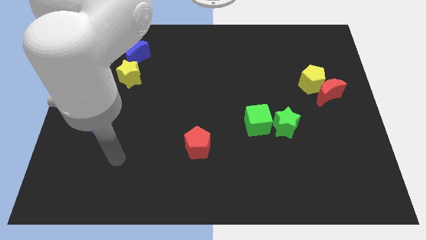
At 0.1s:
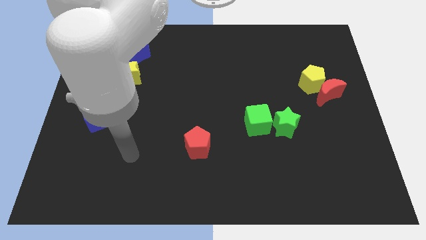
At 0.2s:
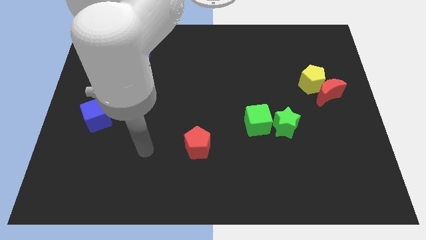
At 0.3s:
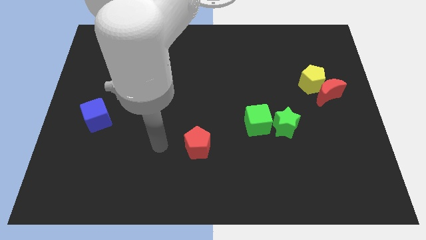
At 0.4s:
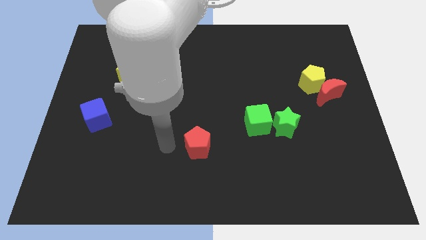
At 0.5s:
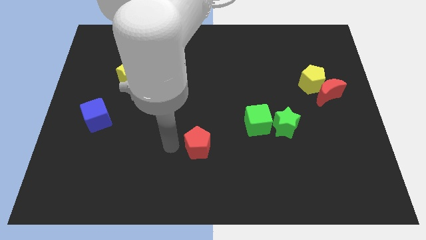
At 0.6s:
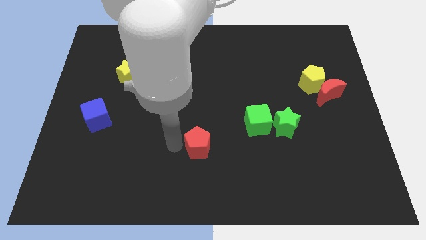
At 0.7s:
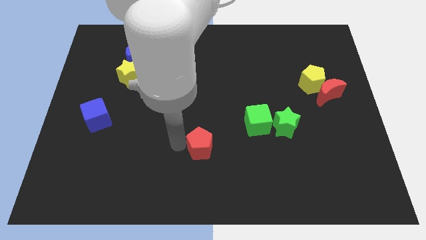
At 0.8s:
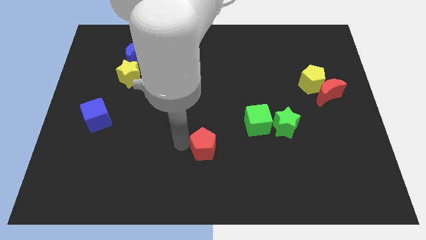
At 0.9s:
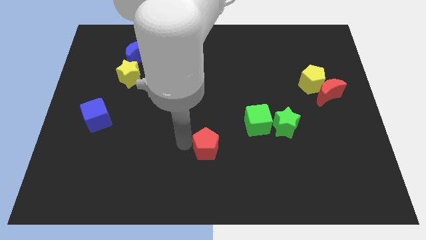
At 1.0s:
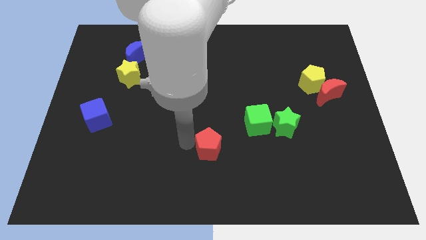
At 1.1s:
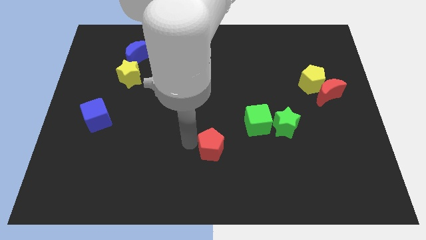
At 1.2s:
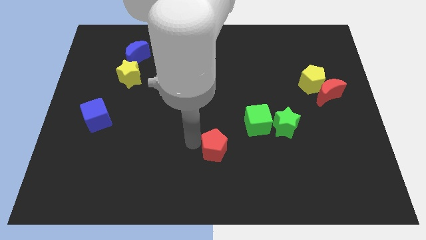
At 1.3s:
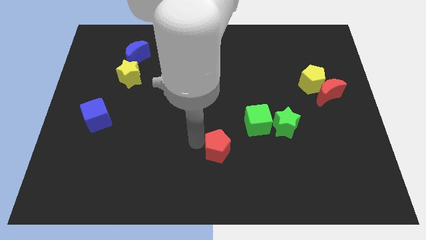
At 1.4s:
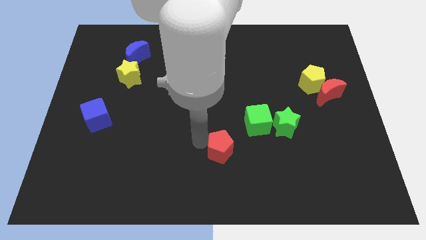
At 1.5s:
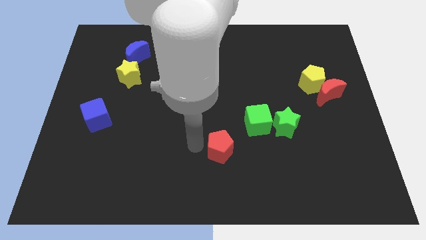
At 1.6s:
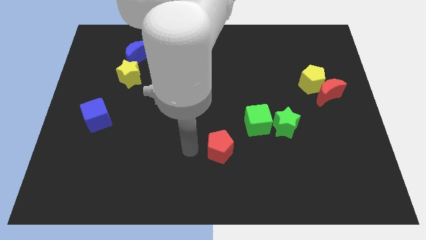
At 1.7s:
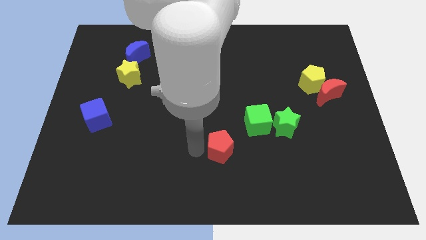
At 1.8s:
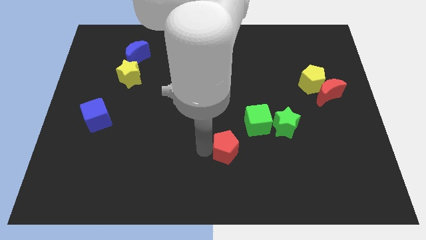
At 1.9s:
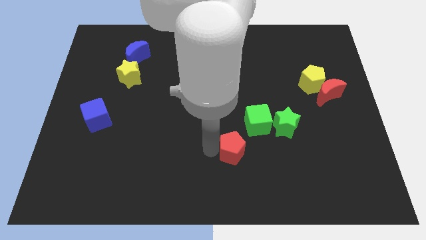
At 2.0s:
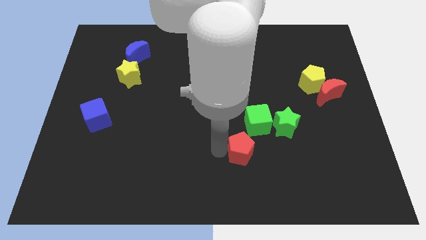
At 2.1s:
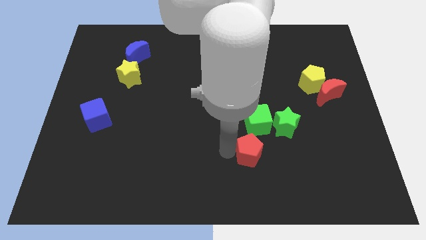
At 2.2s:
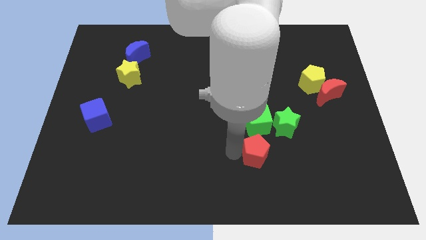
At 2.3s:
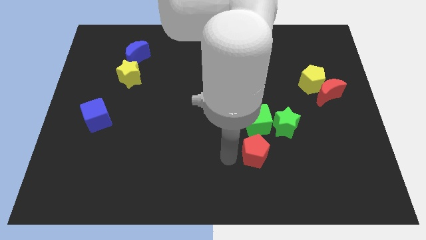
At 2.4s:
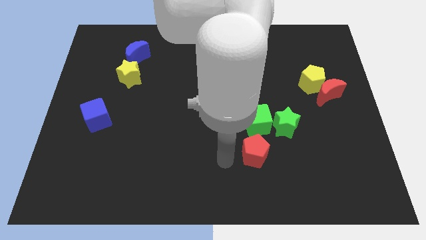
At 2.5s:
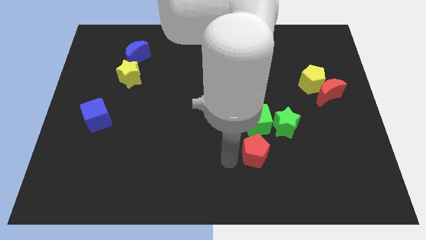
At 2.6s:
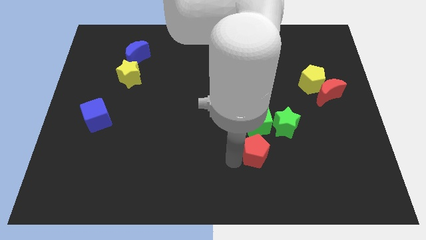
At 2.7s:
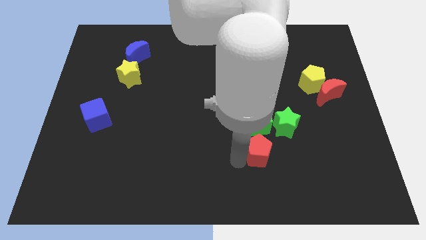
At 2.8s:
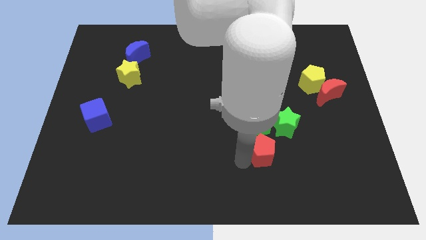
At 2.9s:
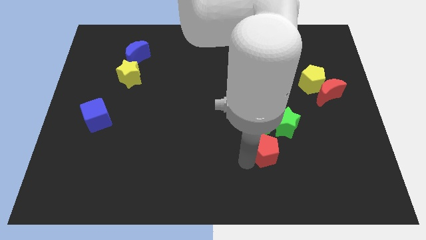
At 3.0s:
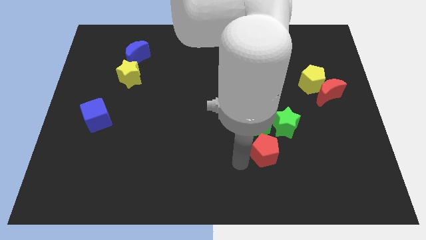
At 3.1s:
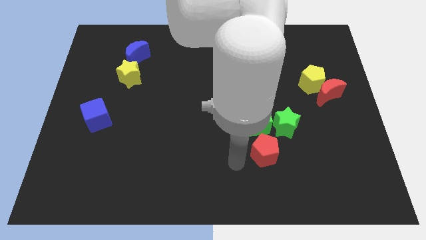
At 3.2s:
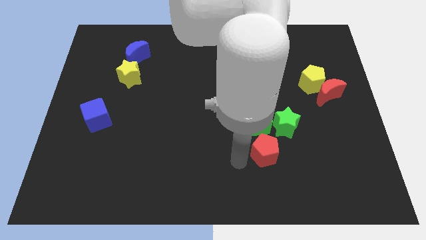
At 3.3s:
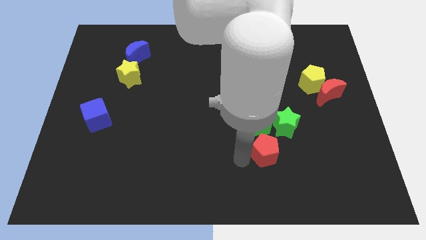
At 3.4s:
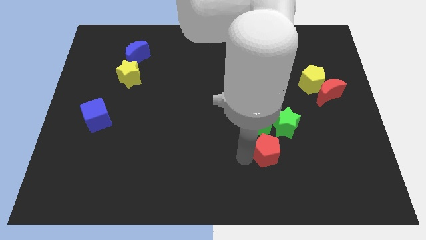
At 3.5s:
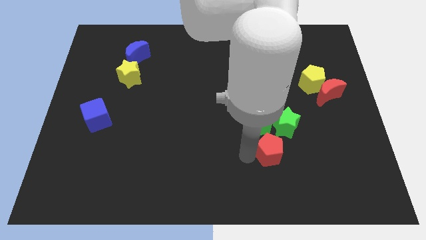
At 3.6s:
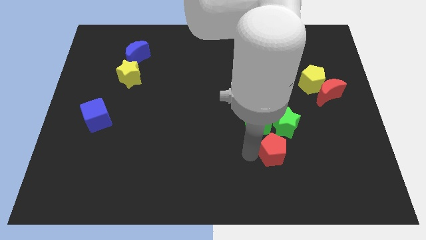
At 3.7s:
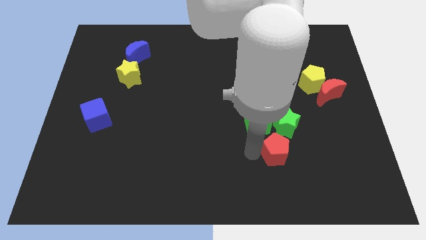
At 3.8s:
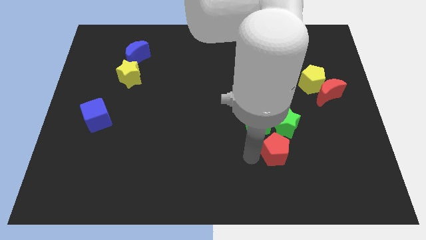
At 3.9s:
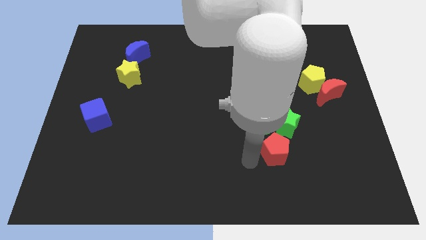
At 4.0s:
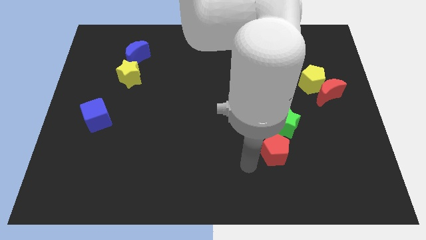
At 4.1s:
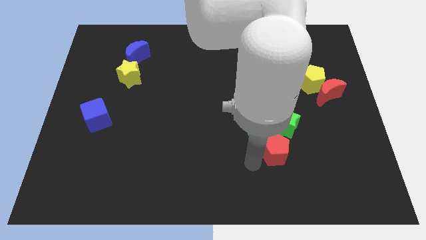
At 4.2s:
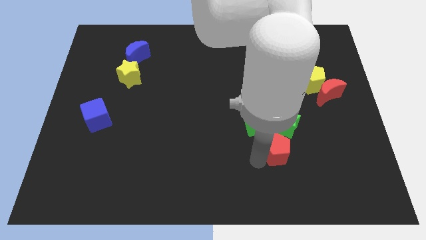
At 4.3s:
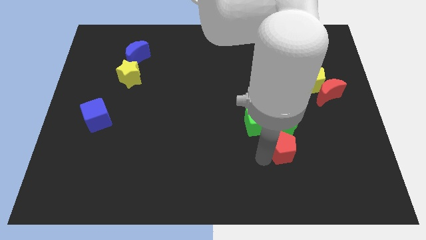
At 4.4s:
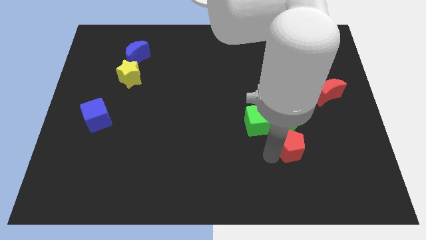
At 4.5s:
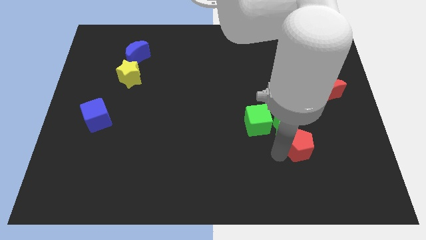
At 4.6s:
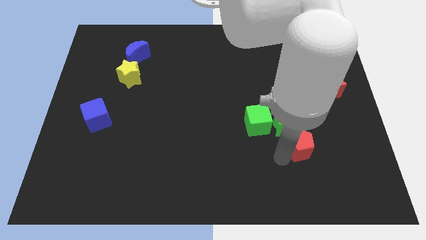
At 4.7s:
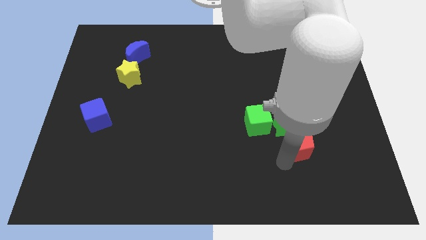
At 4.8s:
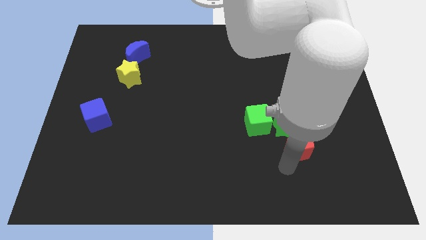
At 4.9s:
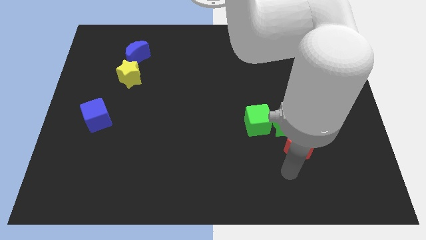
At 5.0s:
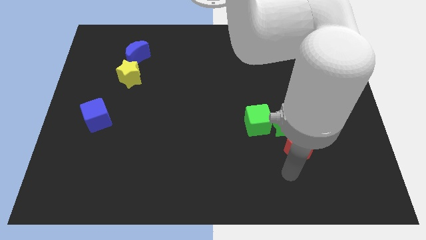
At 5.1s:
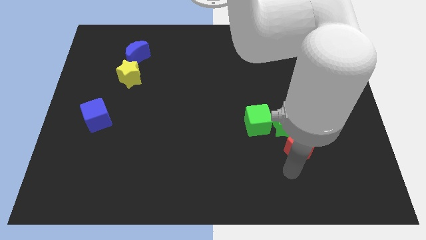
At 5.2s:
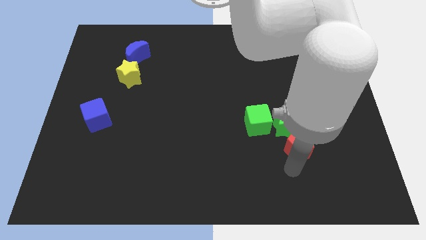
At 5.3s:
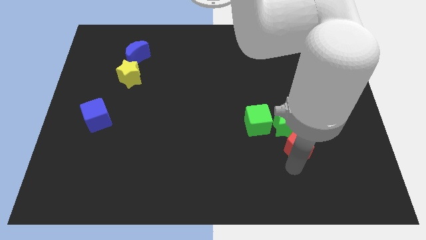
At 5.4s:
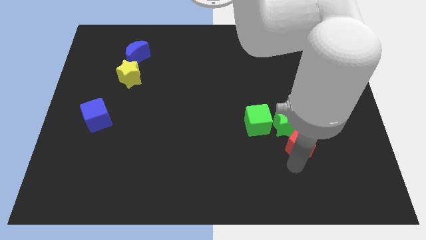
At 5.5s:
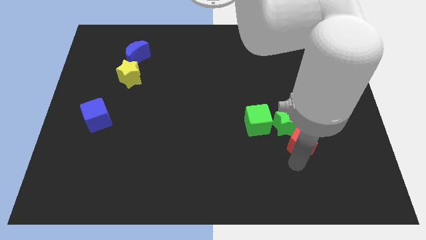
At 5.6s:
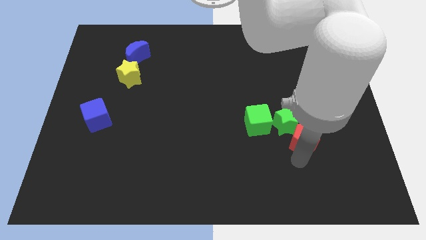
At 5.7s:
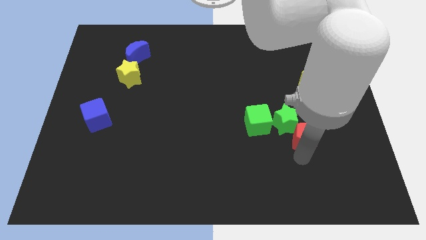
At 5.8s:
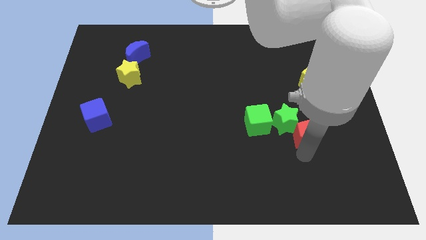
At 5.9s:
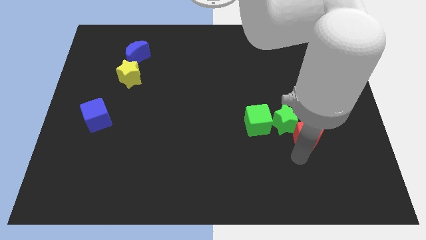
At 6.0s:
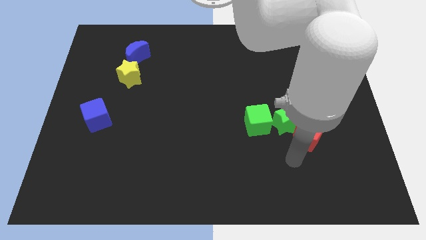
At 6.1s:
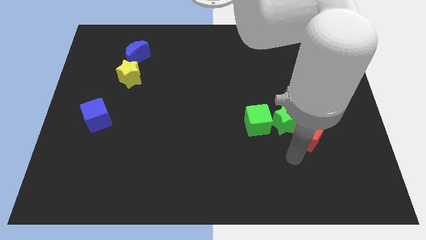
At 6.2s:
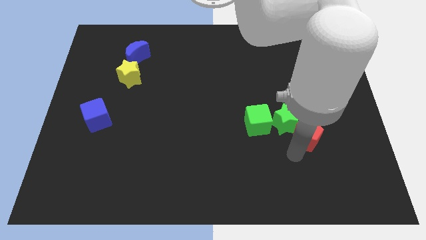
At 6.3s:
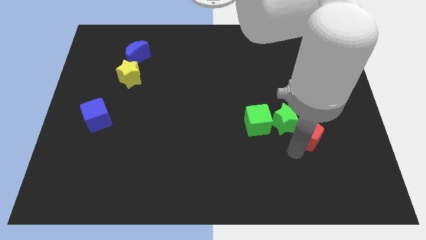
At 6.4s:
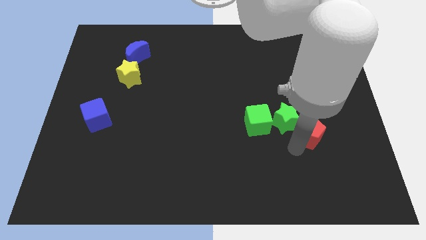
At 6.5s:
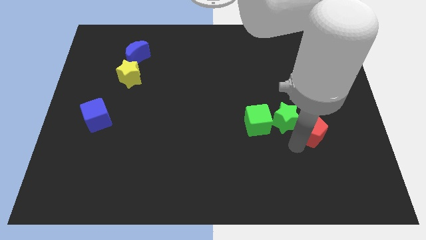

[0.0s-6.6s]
push the red pentagon to the bottom side of the yellow pentagon

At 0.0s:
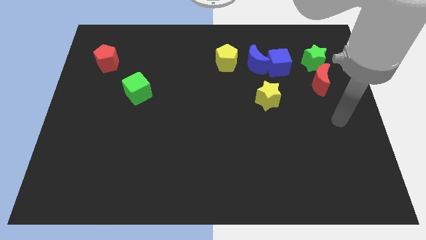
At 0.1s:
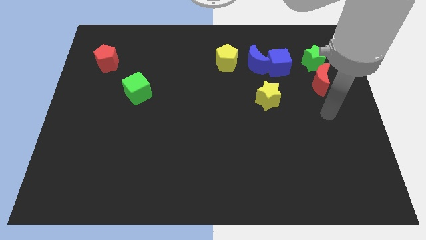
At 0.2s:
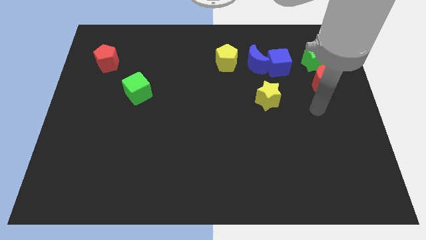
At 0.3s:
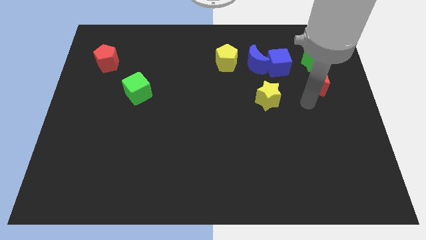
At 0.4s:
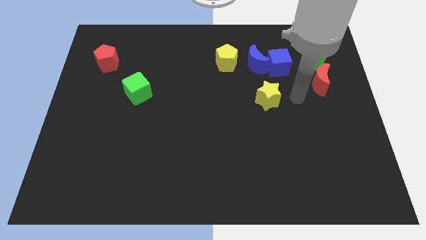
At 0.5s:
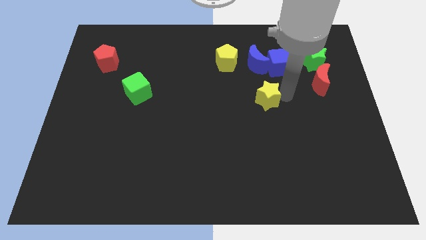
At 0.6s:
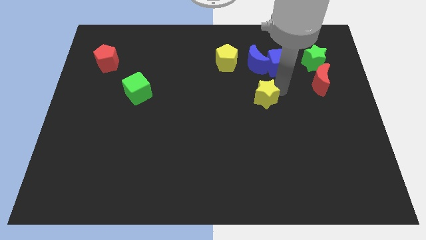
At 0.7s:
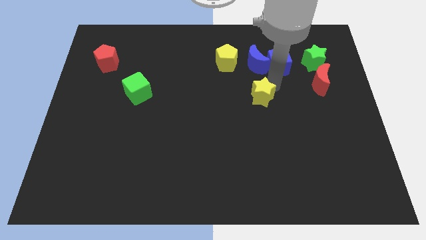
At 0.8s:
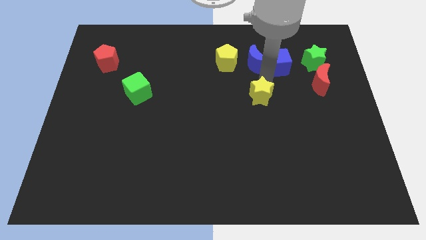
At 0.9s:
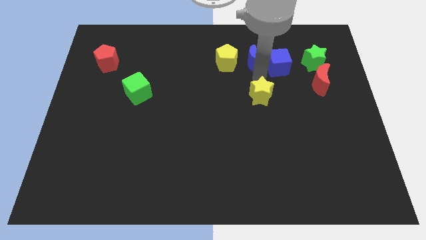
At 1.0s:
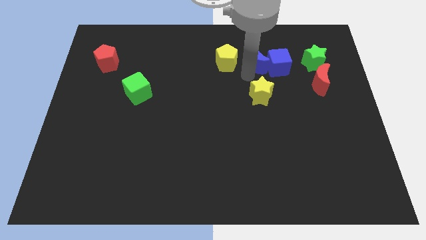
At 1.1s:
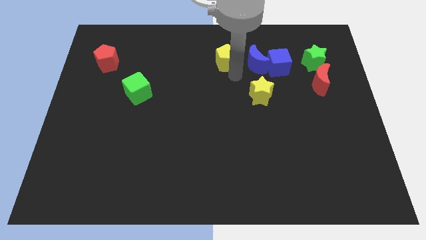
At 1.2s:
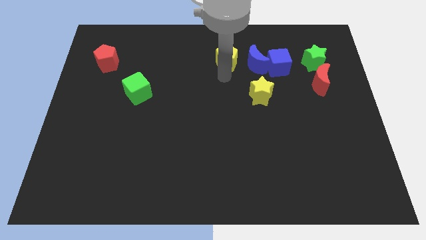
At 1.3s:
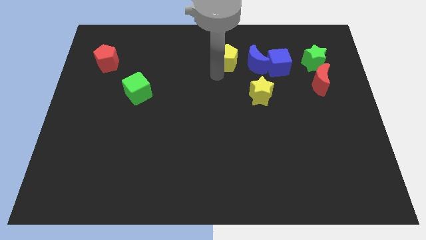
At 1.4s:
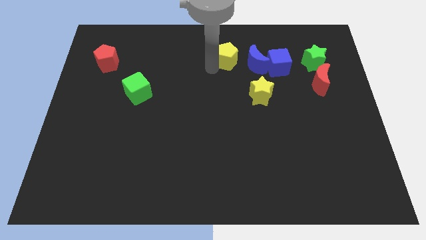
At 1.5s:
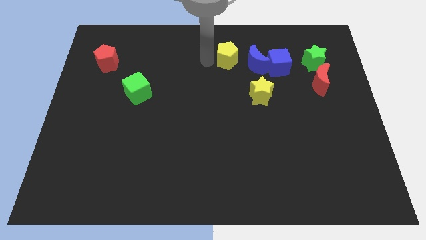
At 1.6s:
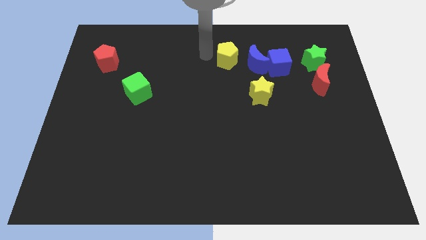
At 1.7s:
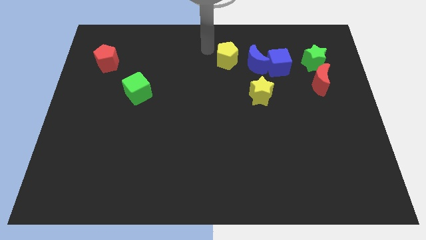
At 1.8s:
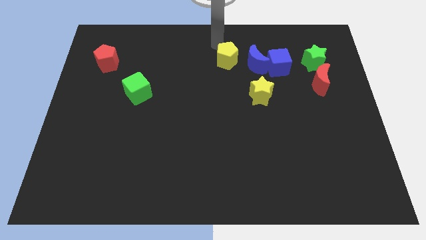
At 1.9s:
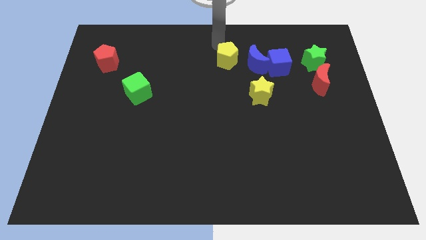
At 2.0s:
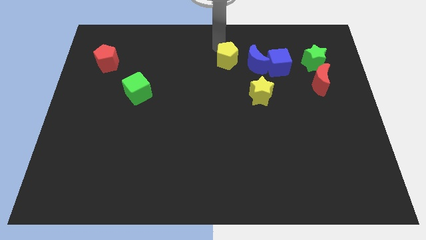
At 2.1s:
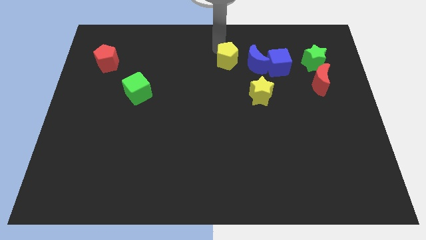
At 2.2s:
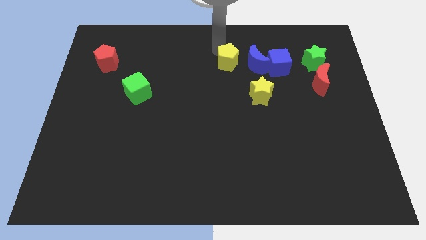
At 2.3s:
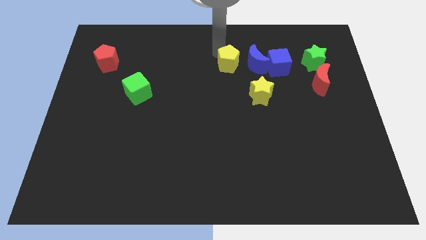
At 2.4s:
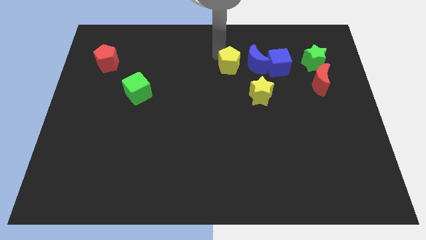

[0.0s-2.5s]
push the yellow pentagon to the bottom left of the blue moon
